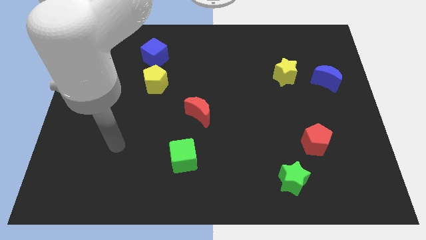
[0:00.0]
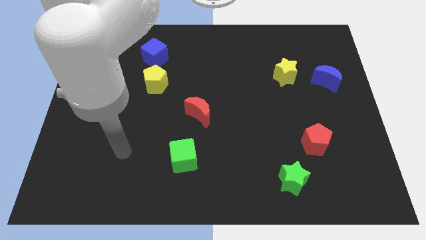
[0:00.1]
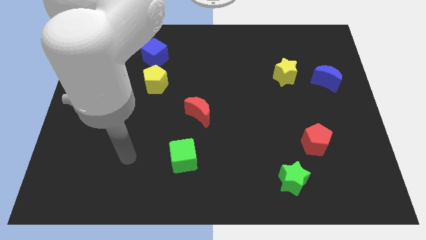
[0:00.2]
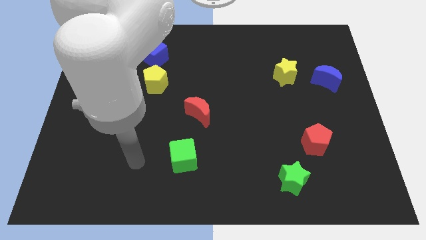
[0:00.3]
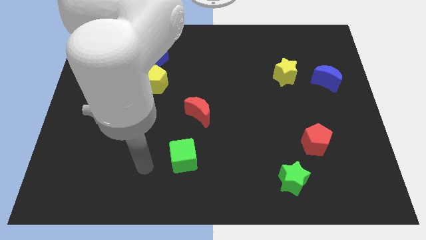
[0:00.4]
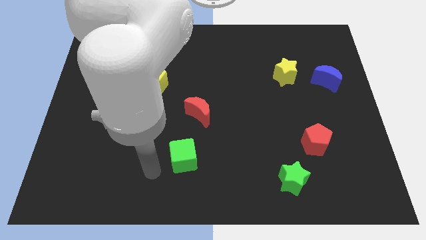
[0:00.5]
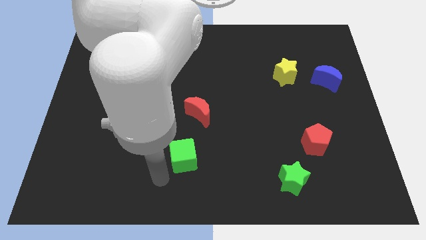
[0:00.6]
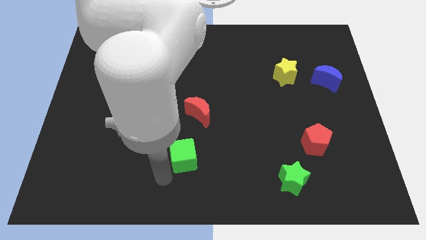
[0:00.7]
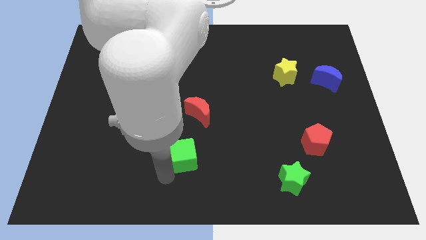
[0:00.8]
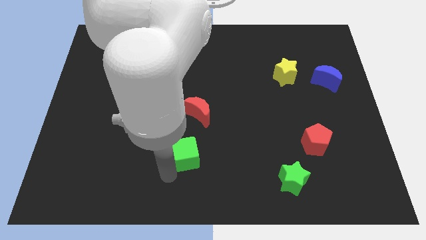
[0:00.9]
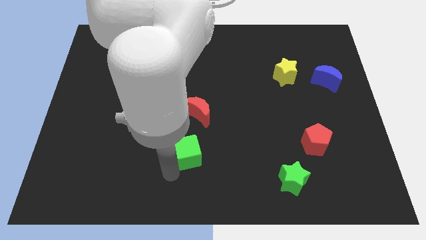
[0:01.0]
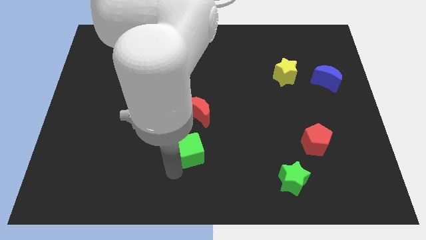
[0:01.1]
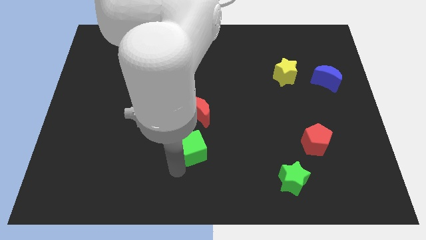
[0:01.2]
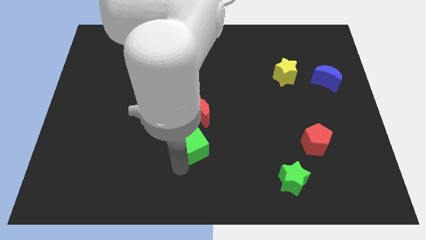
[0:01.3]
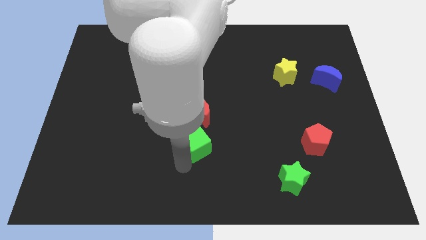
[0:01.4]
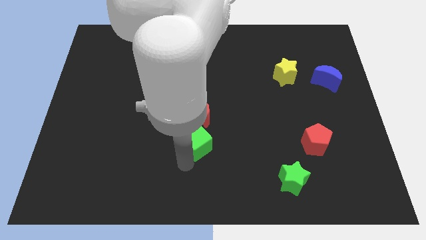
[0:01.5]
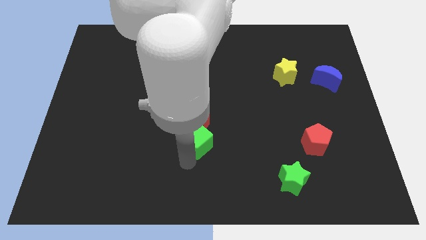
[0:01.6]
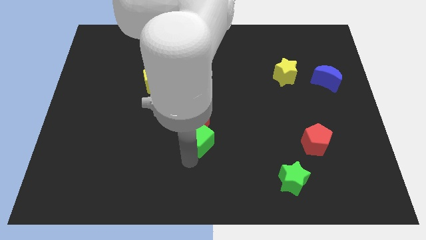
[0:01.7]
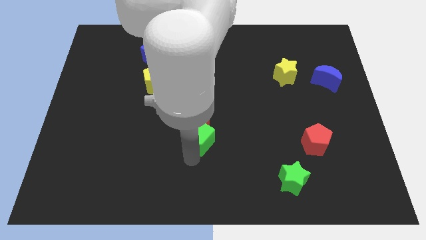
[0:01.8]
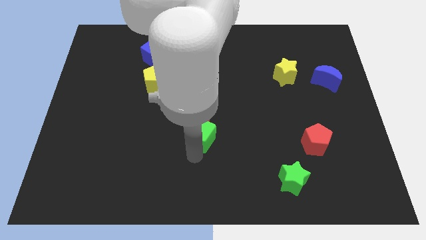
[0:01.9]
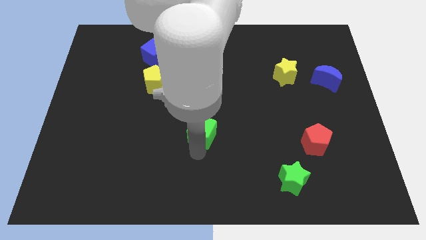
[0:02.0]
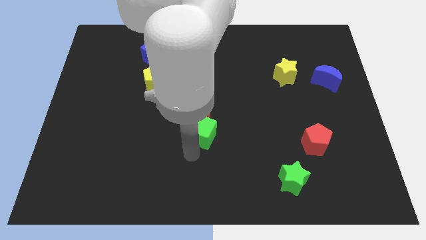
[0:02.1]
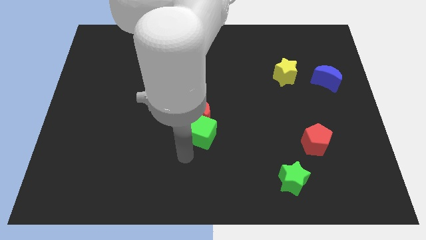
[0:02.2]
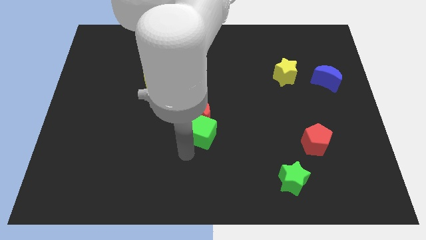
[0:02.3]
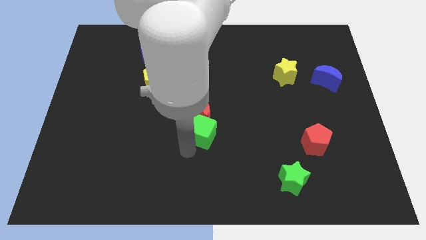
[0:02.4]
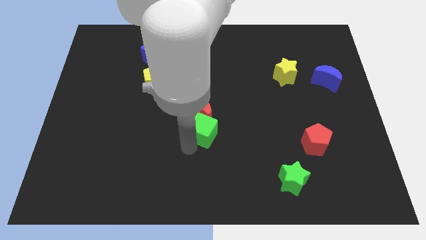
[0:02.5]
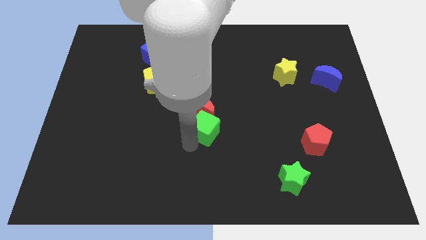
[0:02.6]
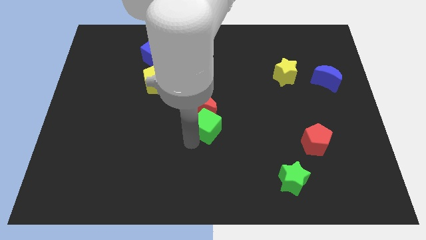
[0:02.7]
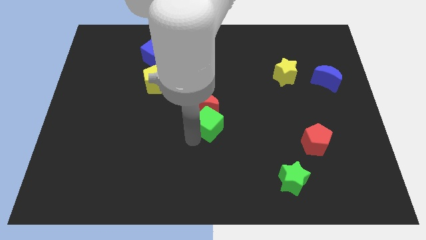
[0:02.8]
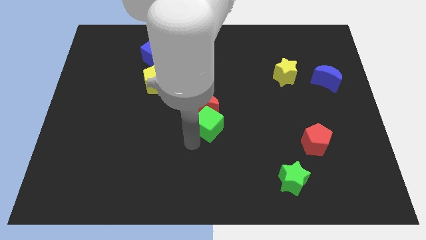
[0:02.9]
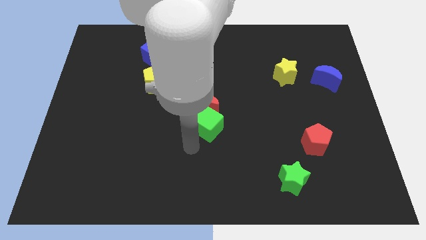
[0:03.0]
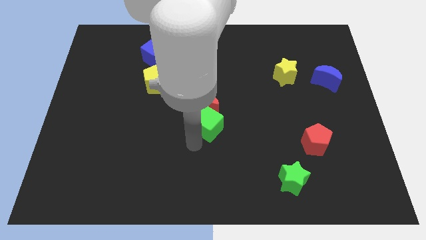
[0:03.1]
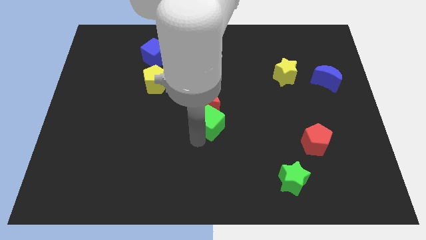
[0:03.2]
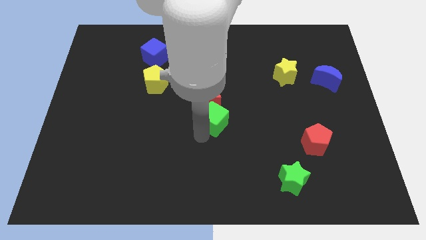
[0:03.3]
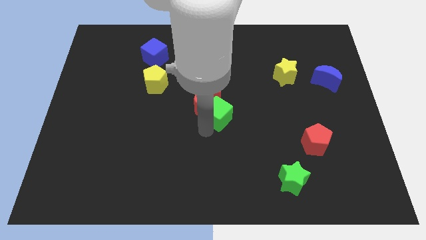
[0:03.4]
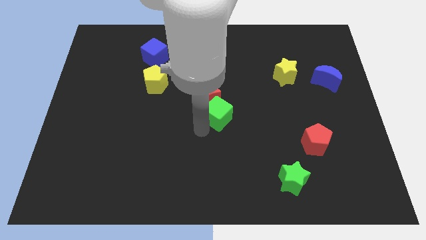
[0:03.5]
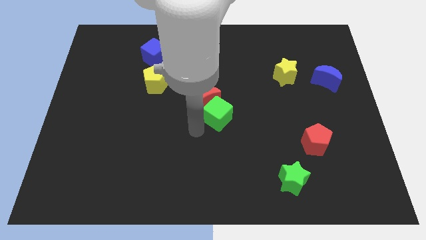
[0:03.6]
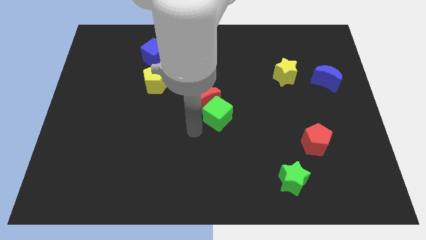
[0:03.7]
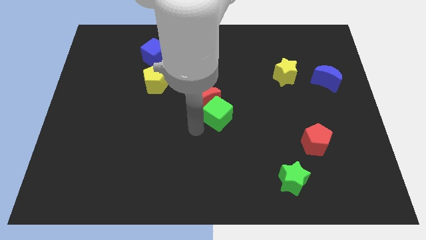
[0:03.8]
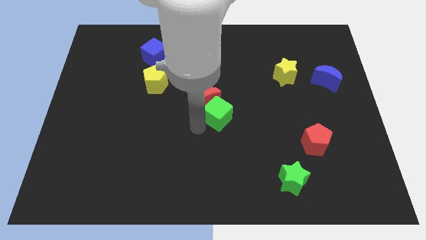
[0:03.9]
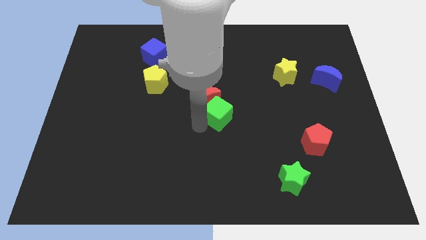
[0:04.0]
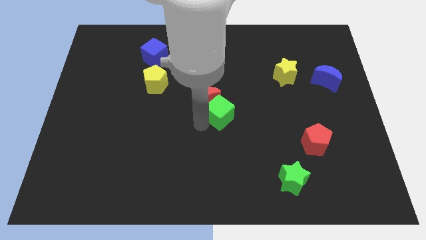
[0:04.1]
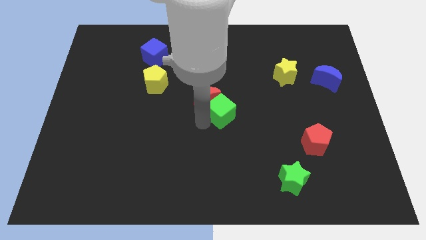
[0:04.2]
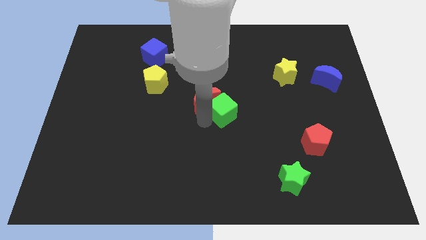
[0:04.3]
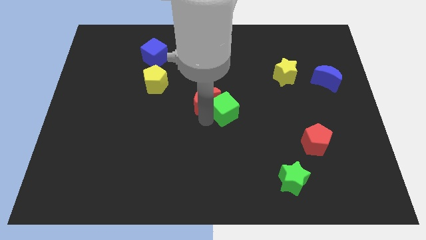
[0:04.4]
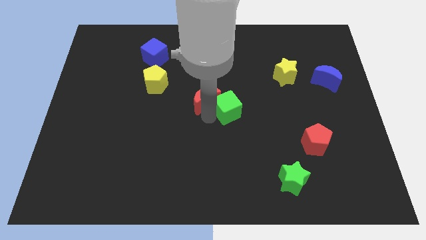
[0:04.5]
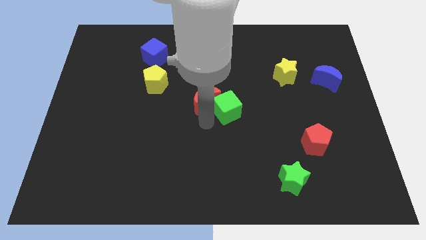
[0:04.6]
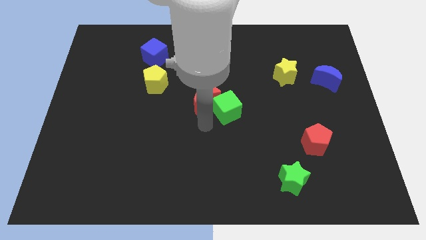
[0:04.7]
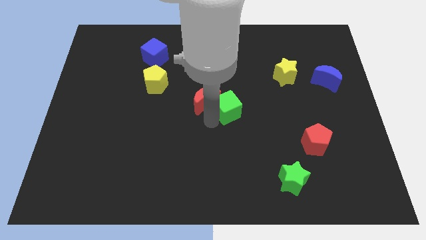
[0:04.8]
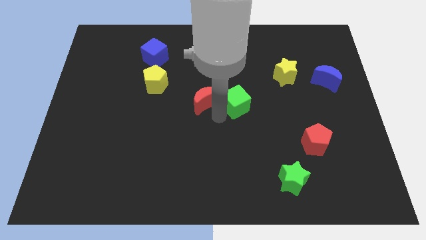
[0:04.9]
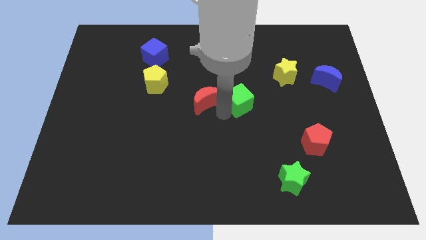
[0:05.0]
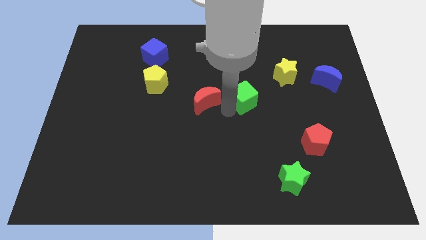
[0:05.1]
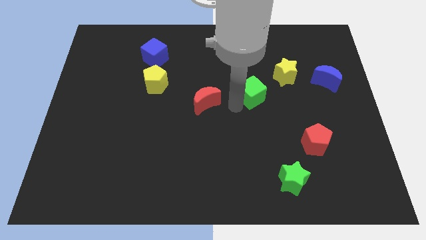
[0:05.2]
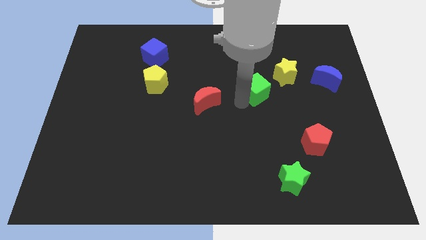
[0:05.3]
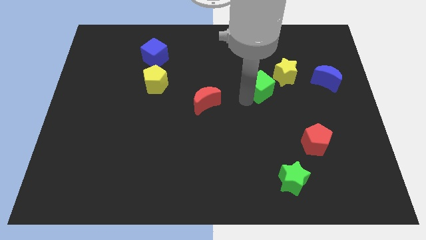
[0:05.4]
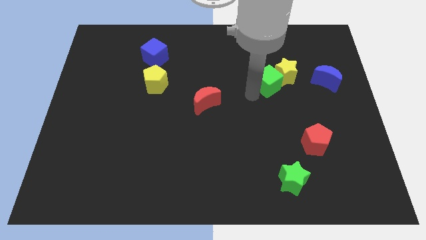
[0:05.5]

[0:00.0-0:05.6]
slide the green cube to the yellow star
